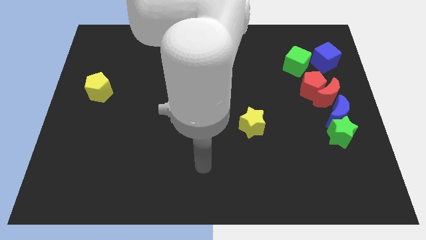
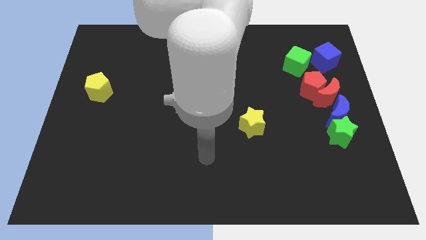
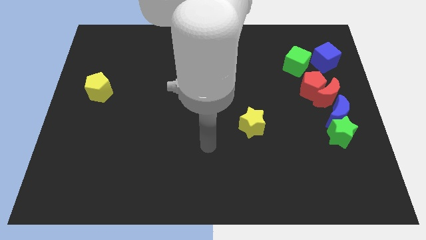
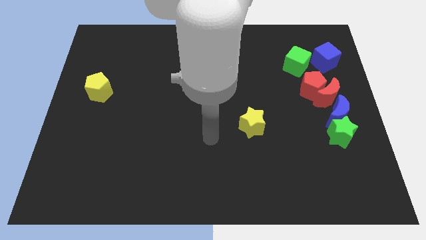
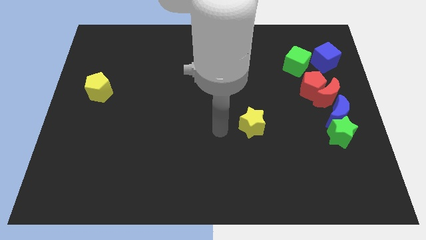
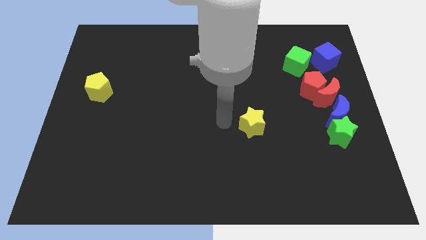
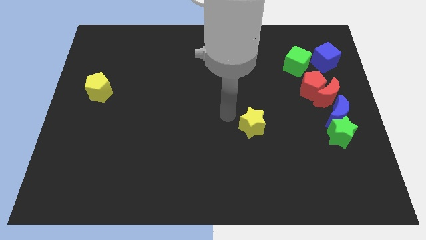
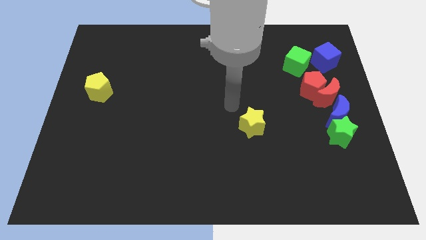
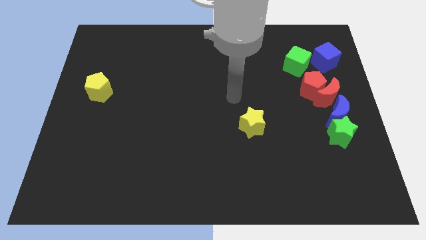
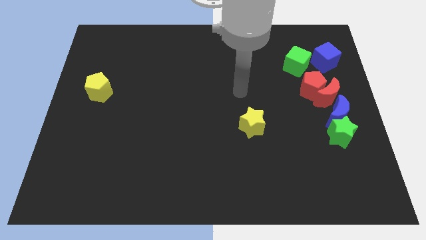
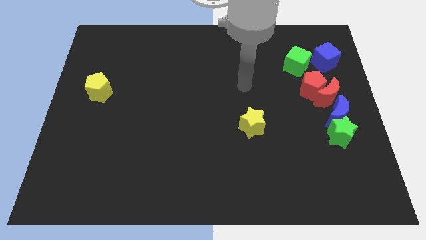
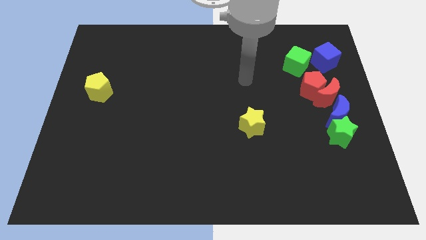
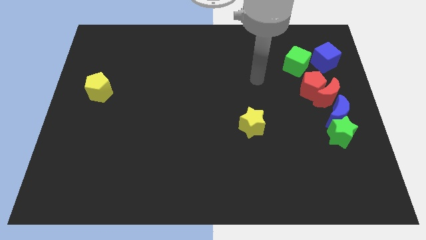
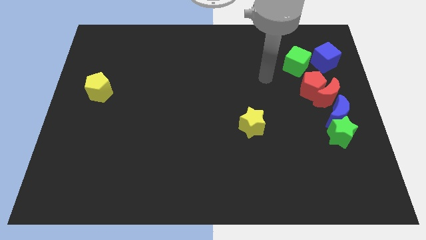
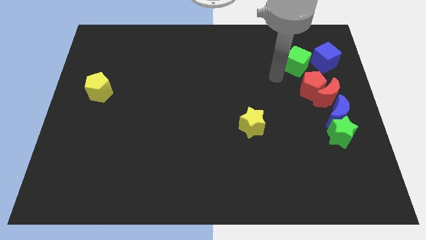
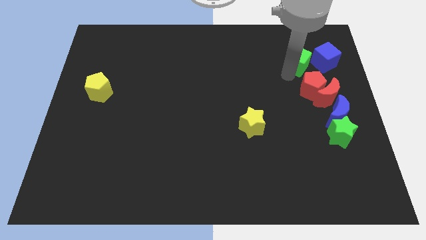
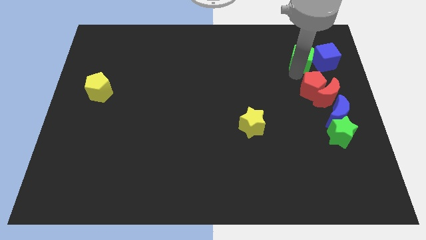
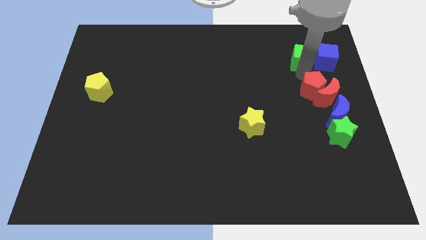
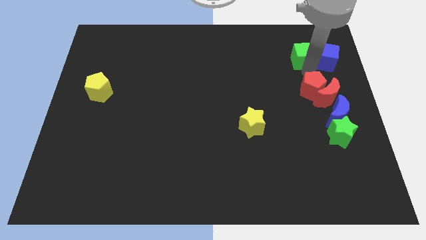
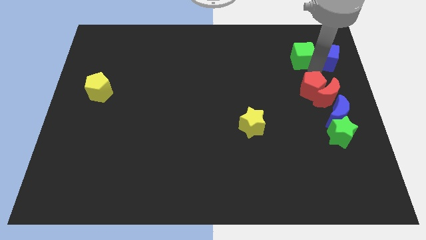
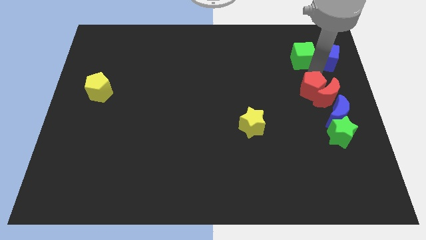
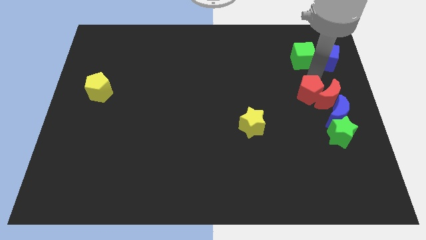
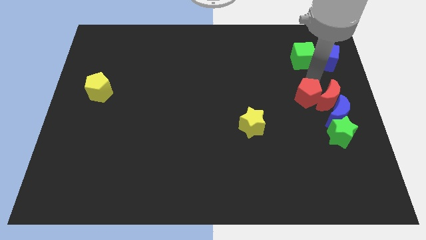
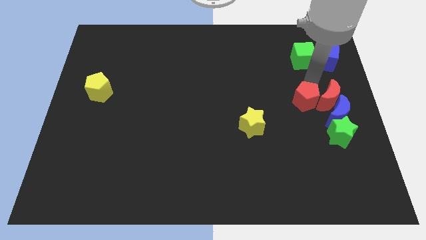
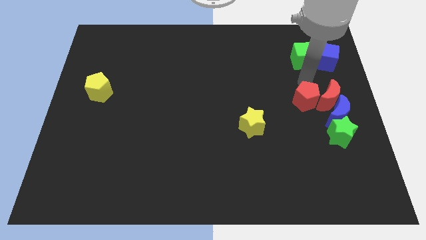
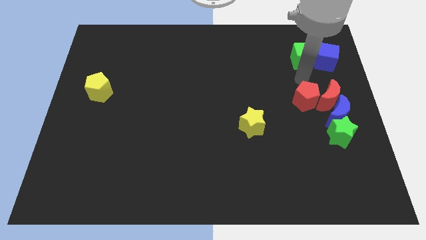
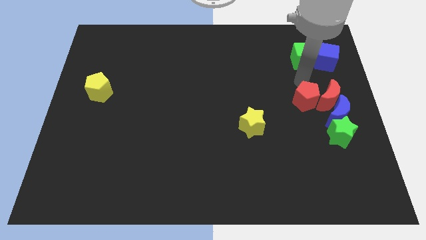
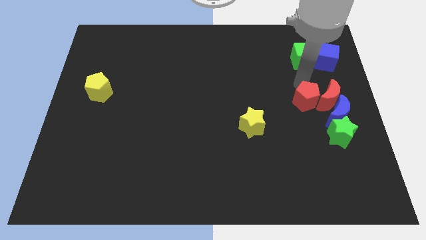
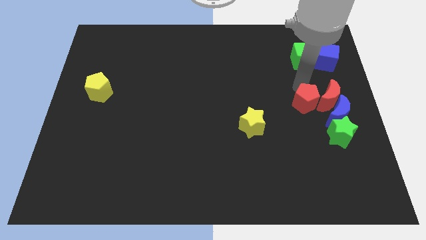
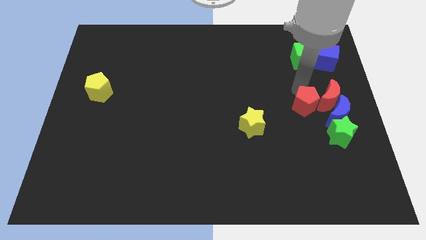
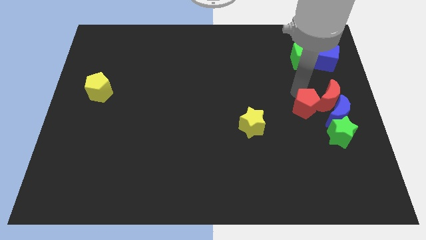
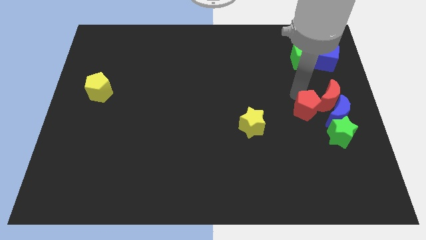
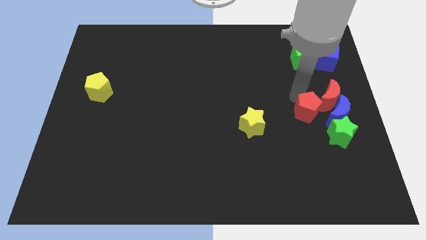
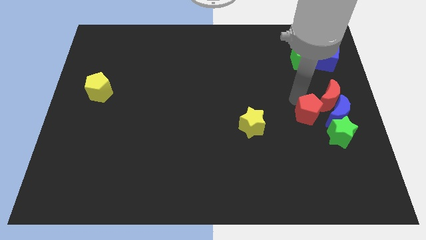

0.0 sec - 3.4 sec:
move the red pentagon a little downwards

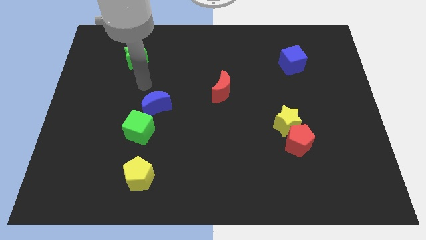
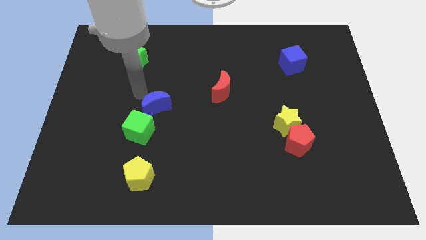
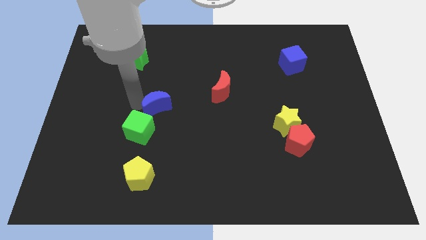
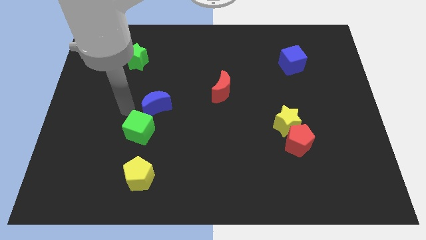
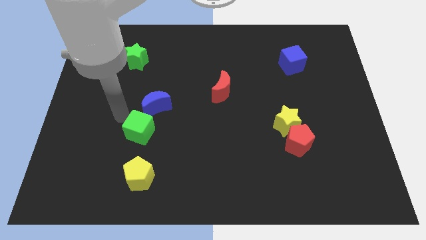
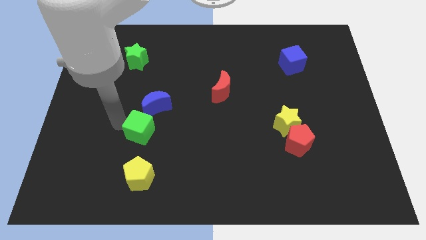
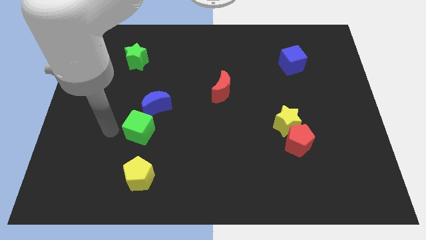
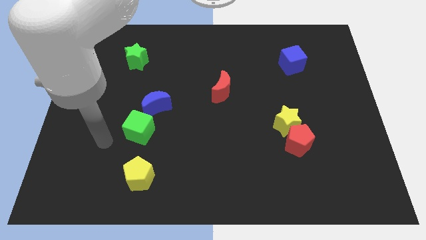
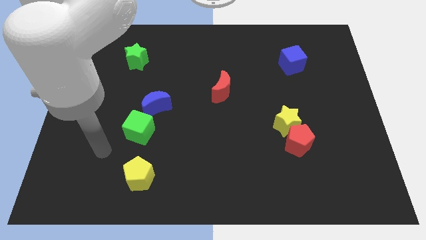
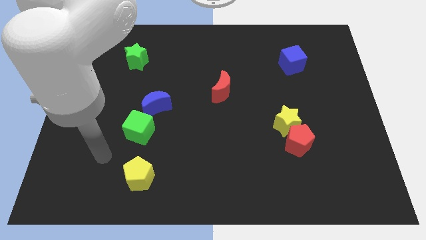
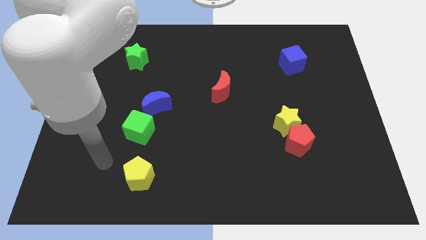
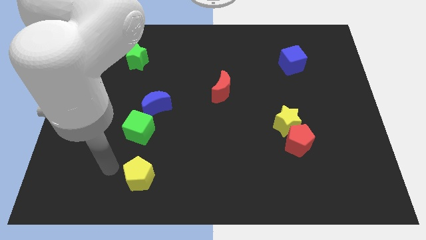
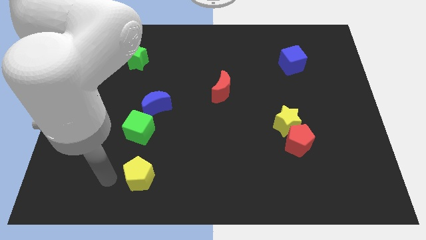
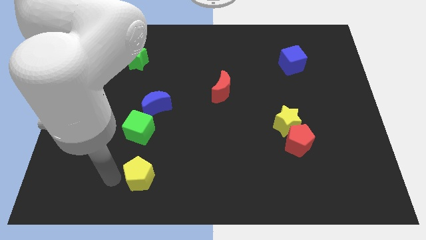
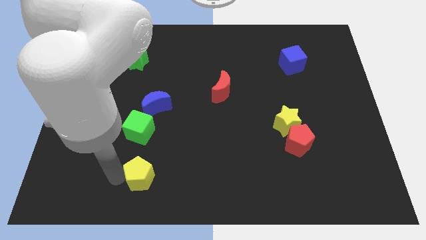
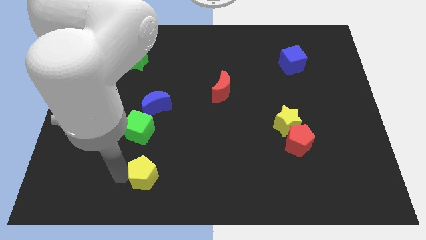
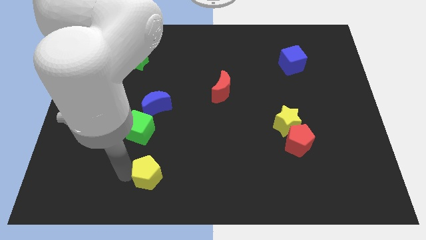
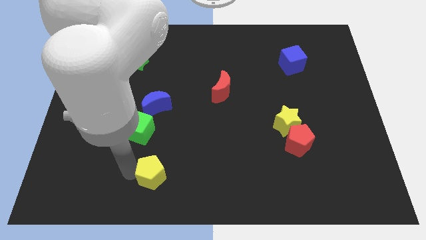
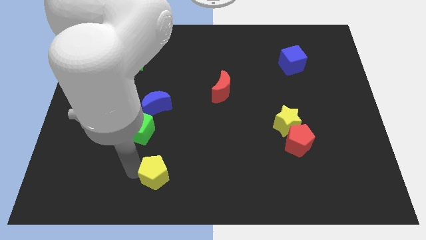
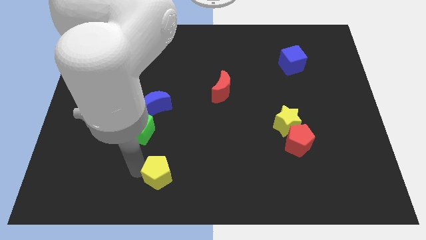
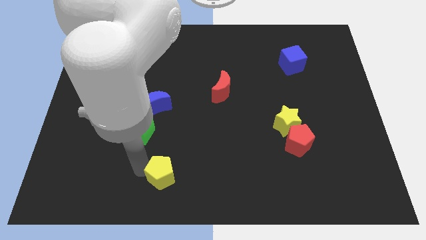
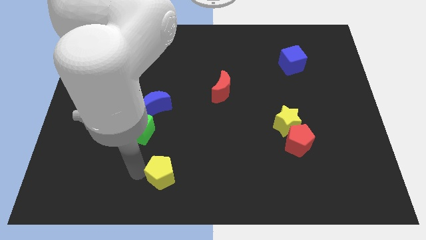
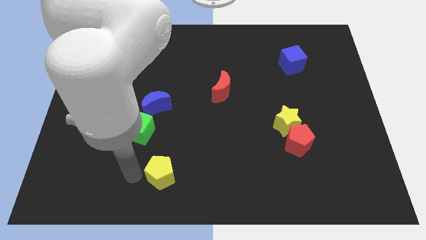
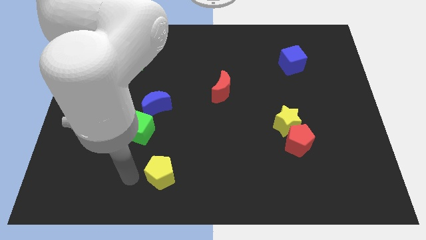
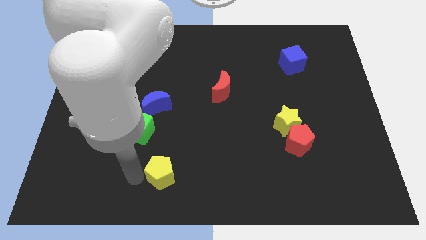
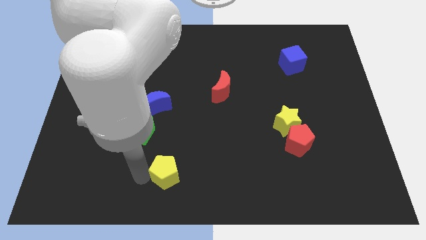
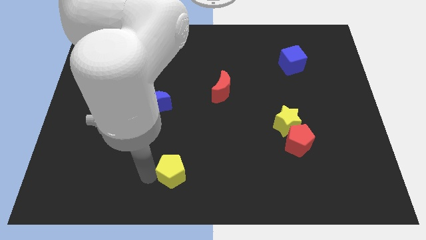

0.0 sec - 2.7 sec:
slightly slide the yellow pentagon right

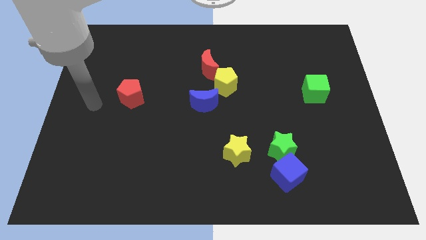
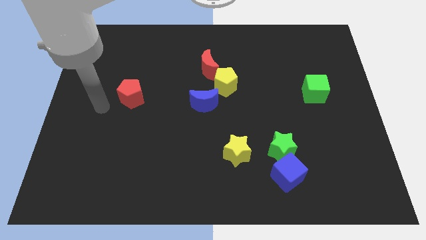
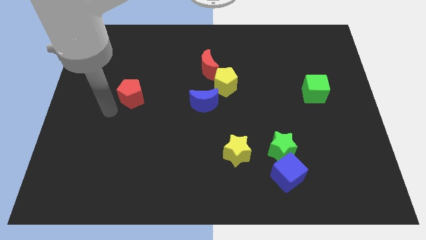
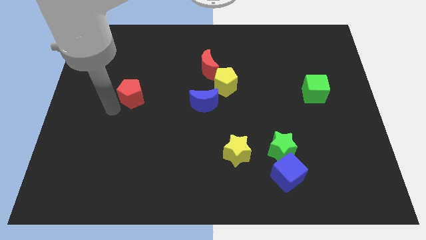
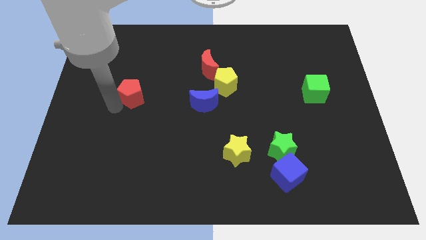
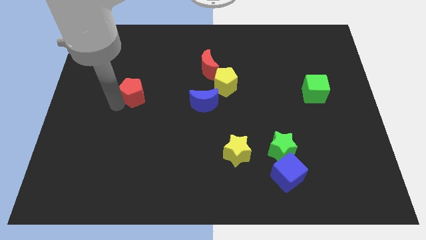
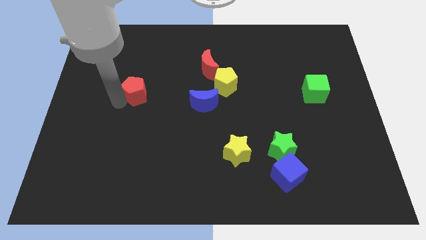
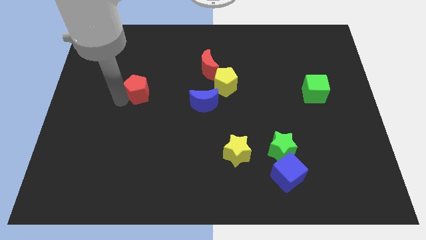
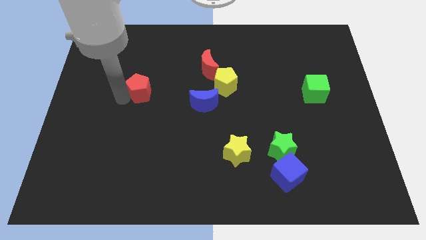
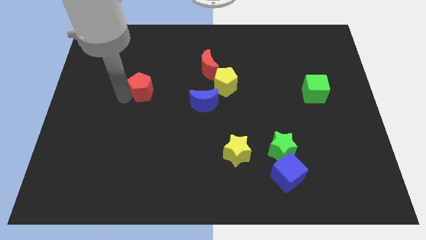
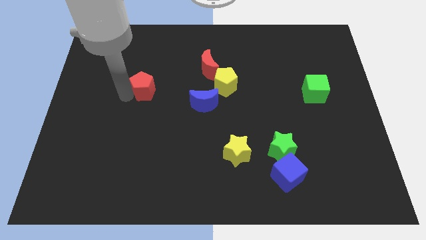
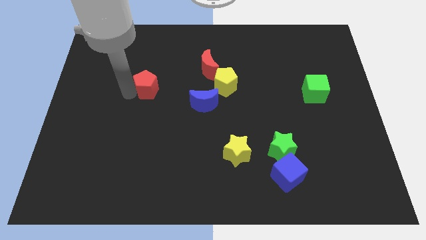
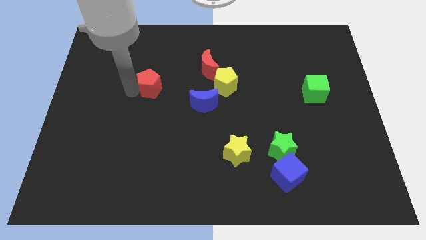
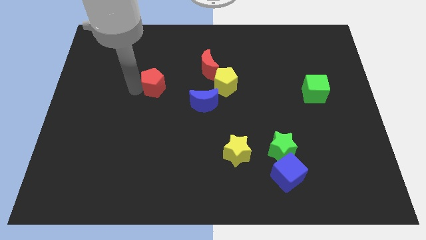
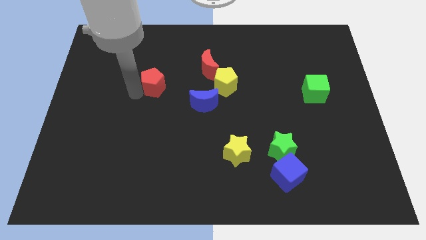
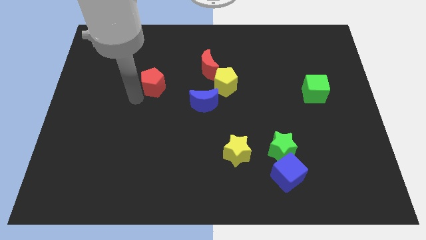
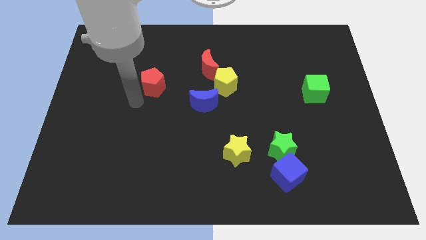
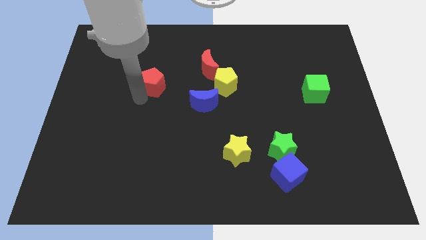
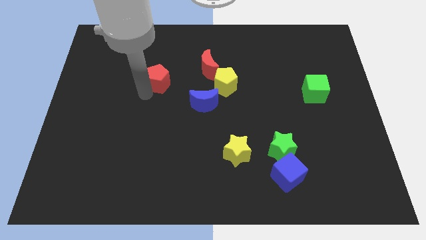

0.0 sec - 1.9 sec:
slightly push the red pentagon upwards and to the right

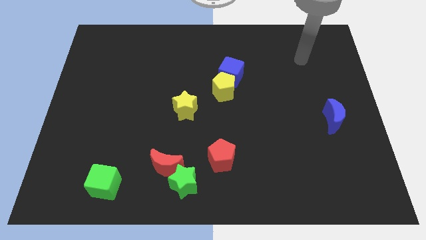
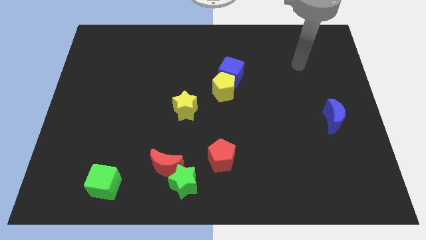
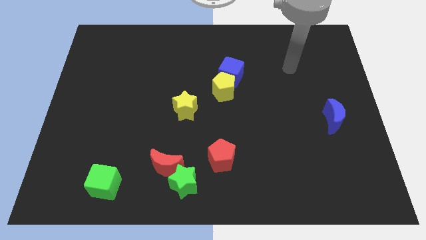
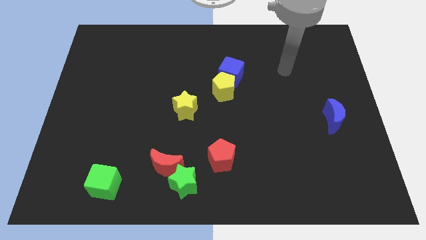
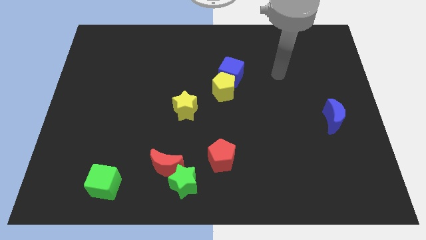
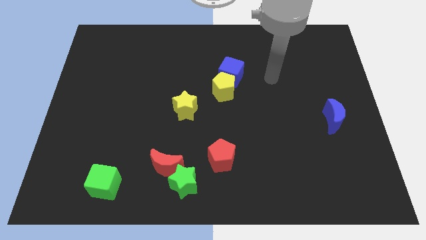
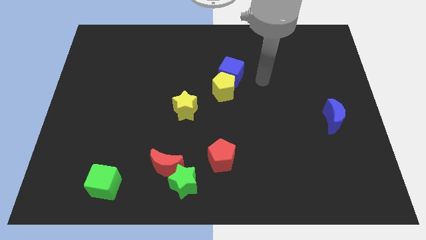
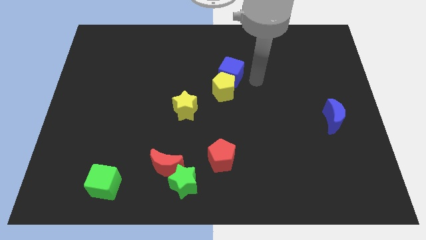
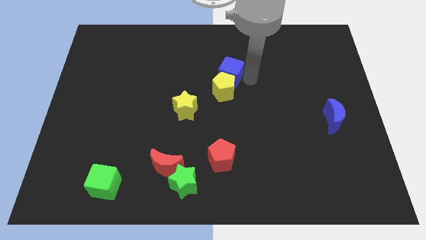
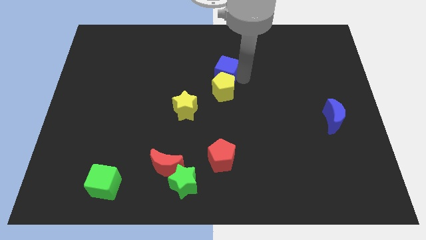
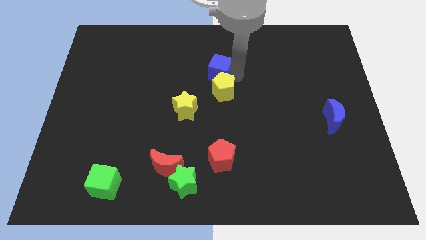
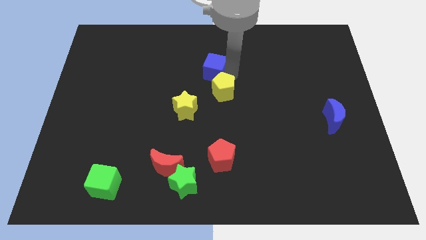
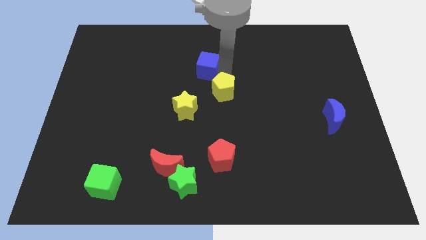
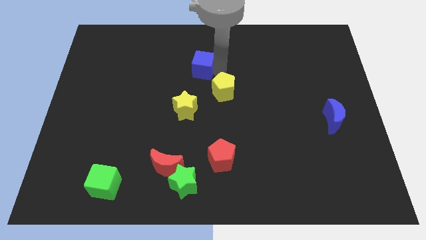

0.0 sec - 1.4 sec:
slightly push the blue cube to the left
